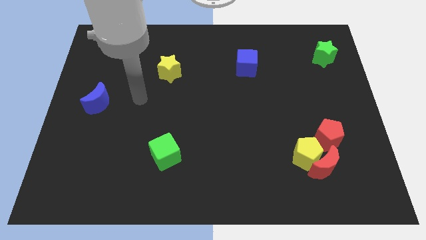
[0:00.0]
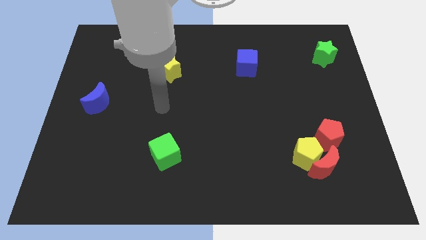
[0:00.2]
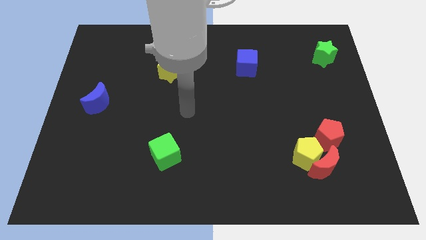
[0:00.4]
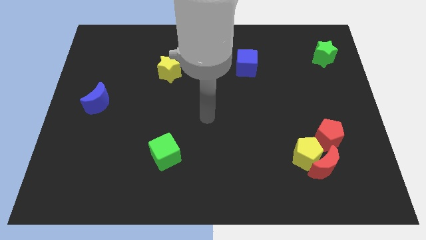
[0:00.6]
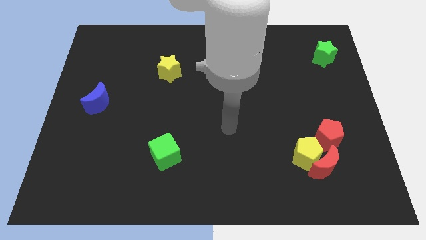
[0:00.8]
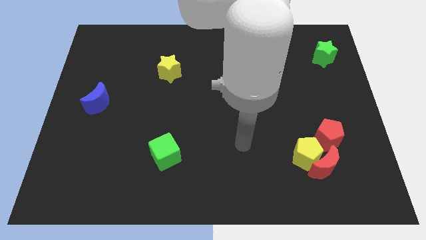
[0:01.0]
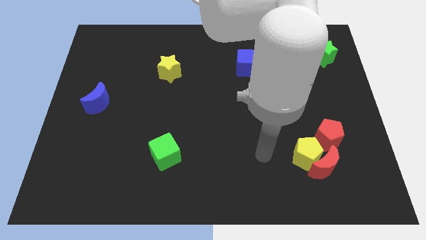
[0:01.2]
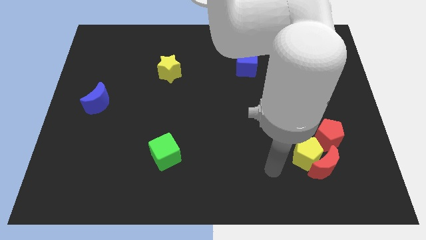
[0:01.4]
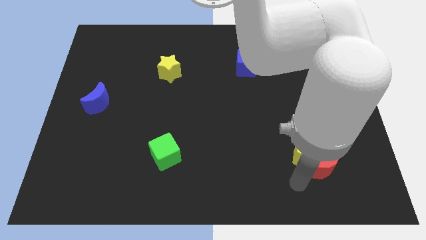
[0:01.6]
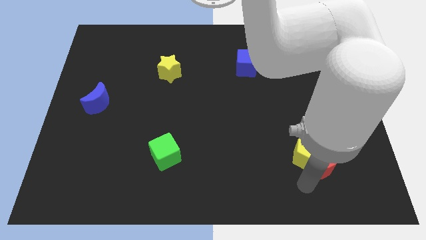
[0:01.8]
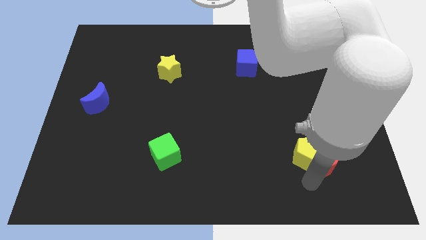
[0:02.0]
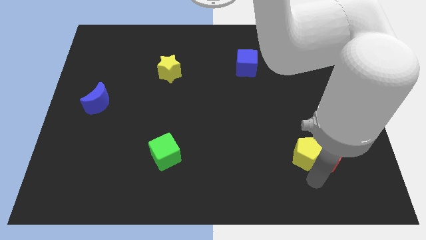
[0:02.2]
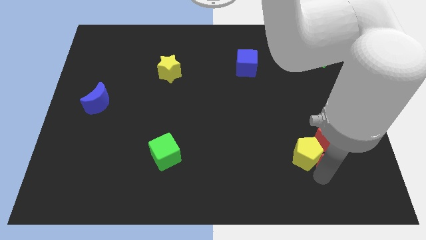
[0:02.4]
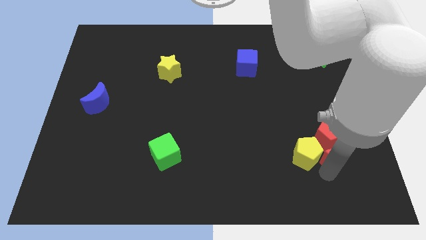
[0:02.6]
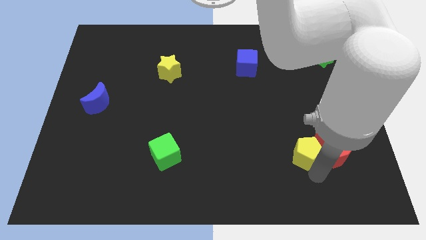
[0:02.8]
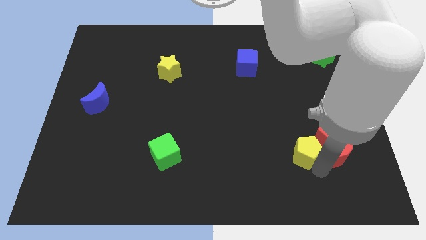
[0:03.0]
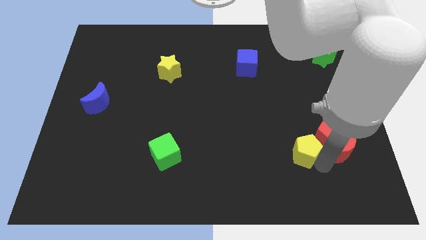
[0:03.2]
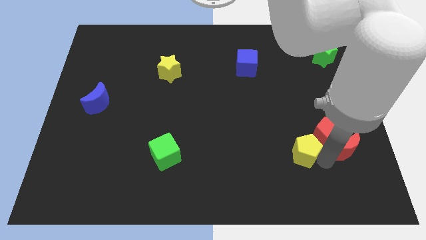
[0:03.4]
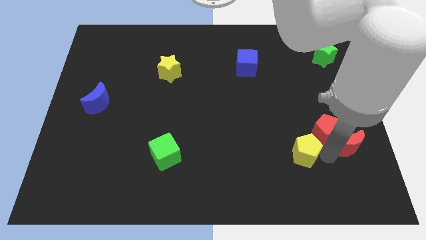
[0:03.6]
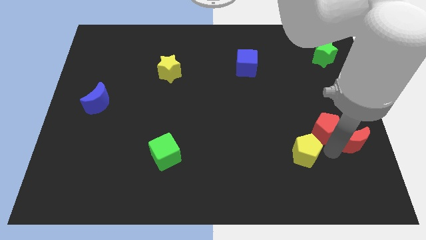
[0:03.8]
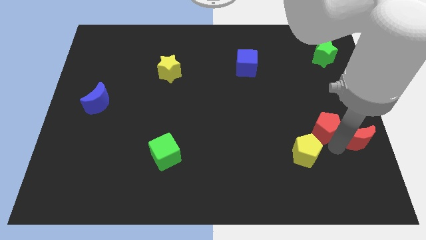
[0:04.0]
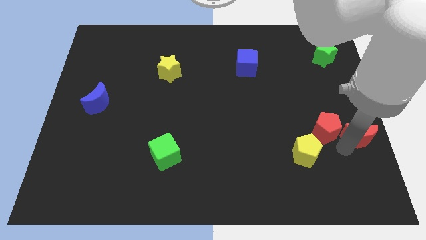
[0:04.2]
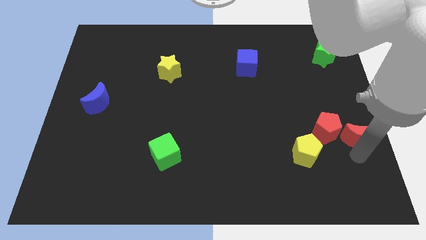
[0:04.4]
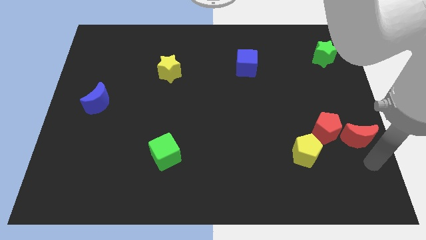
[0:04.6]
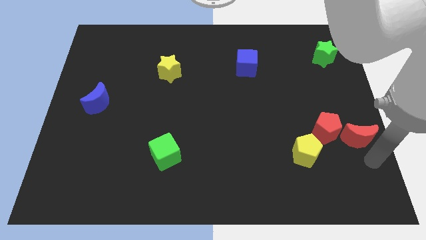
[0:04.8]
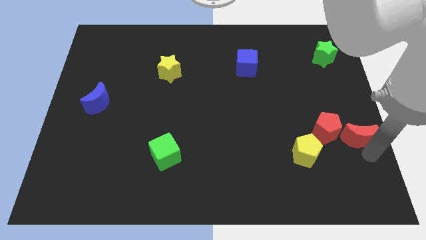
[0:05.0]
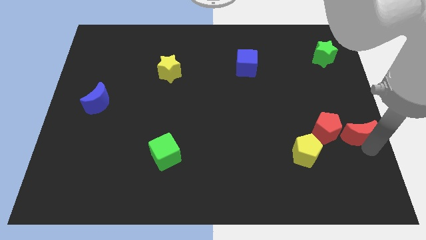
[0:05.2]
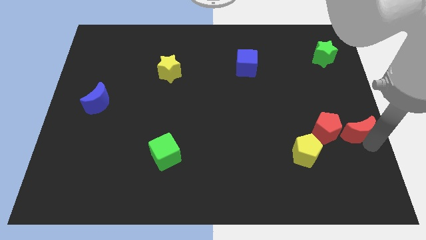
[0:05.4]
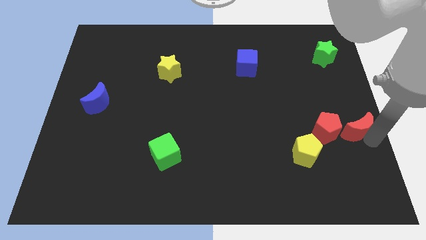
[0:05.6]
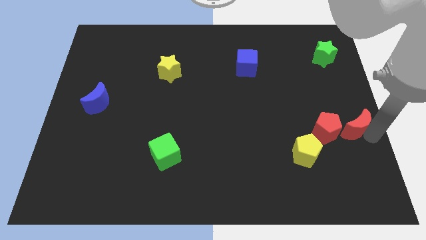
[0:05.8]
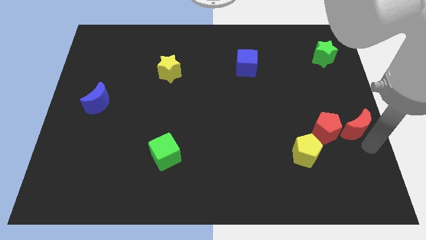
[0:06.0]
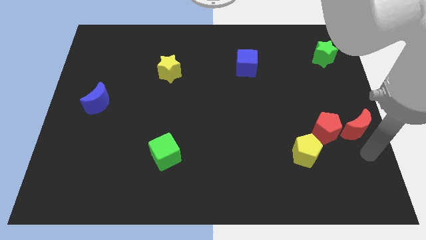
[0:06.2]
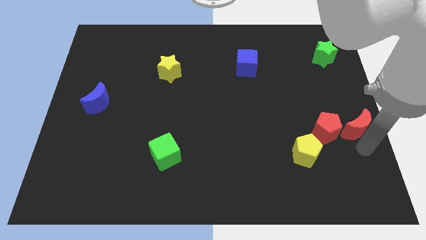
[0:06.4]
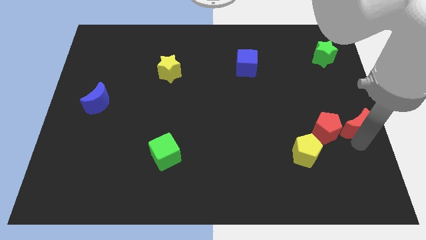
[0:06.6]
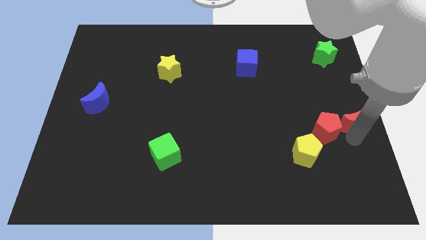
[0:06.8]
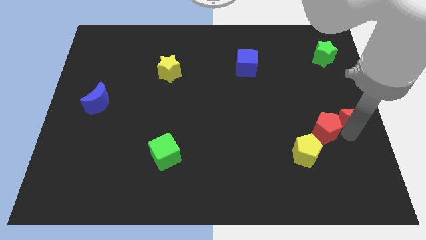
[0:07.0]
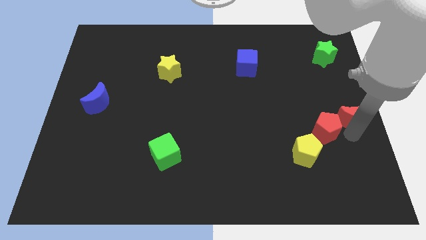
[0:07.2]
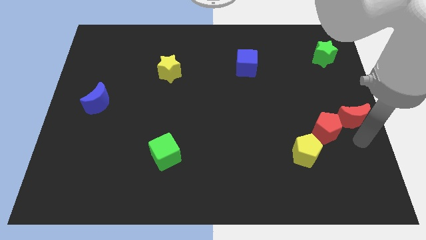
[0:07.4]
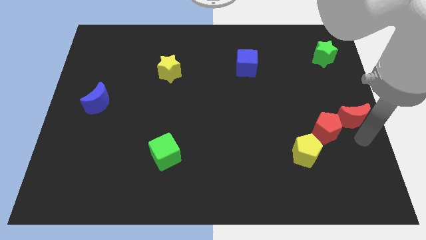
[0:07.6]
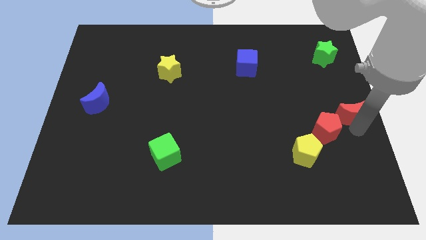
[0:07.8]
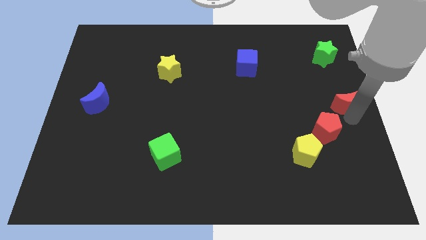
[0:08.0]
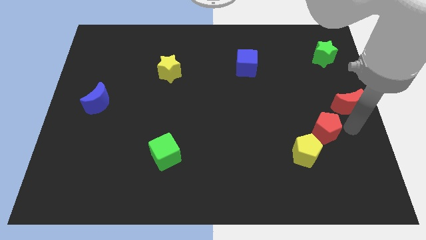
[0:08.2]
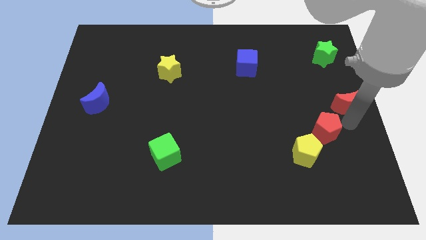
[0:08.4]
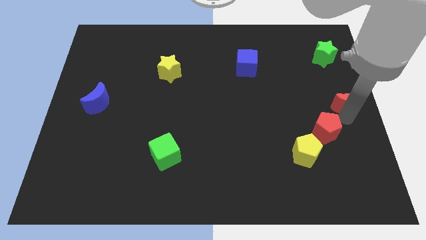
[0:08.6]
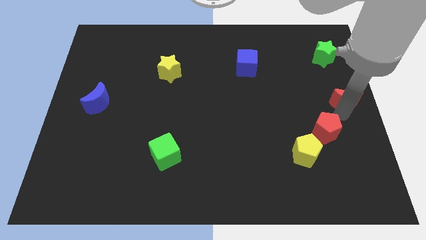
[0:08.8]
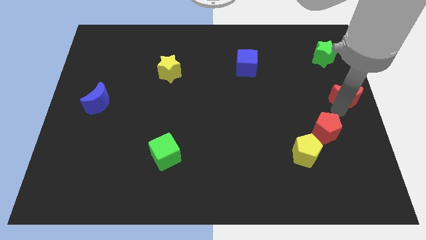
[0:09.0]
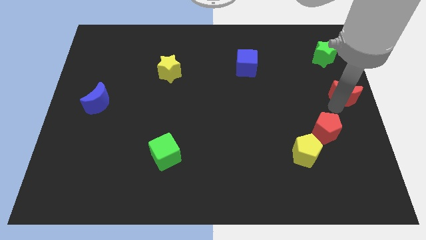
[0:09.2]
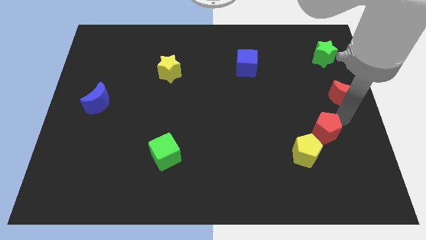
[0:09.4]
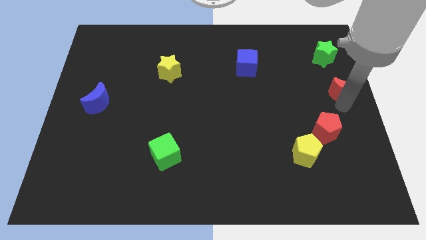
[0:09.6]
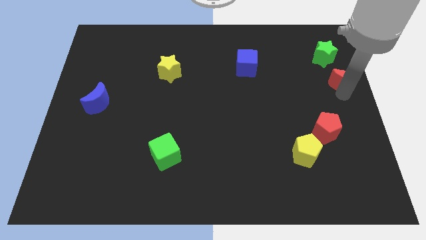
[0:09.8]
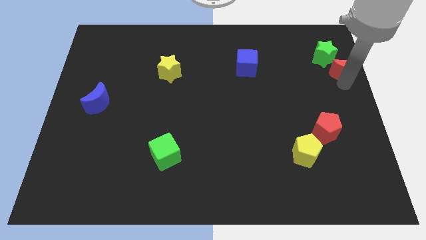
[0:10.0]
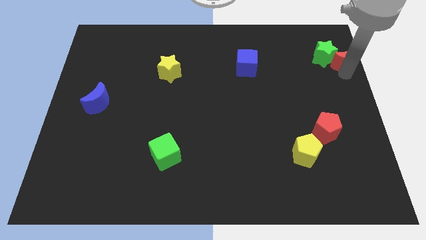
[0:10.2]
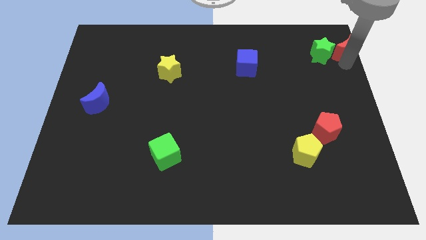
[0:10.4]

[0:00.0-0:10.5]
put the red moon to the top right

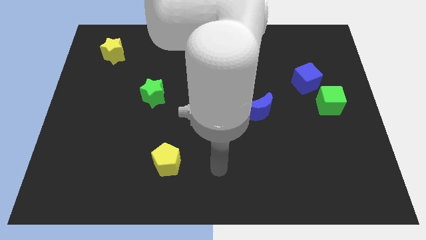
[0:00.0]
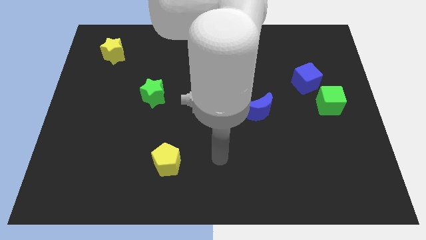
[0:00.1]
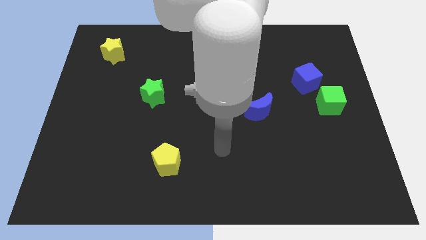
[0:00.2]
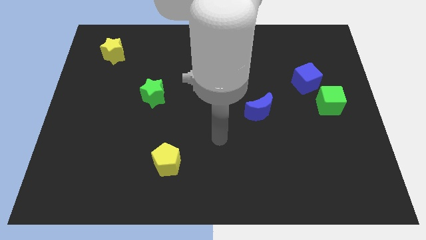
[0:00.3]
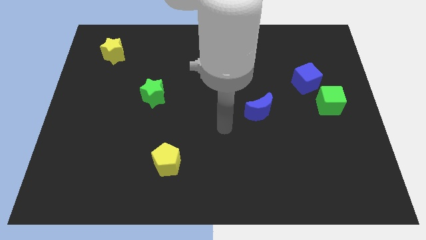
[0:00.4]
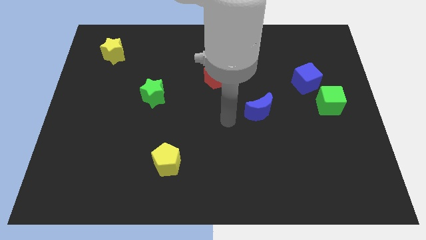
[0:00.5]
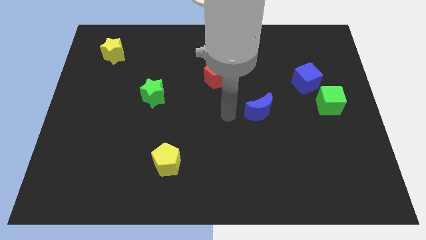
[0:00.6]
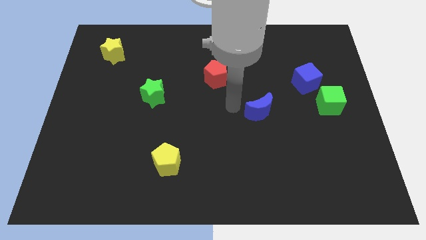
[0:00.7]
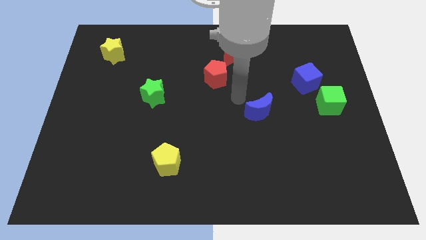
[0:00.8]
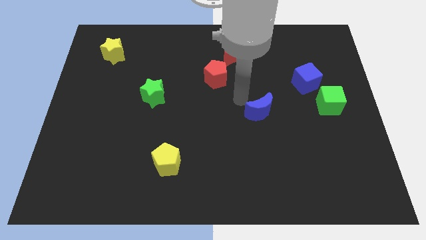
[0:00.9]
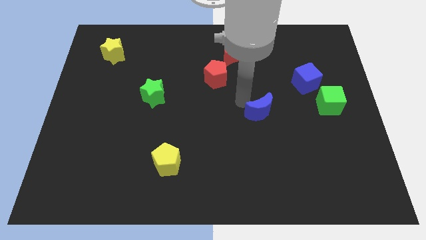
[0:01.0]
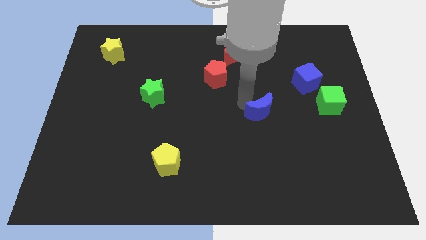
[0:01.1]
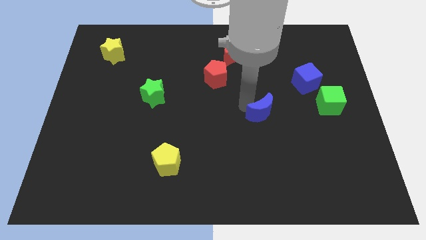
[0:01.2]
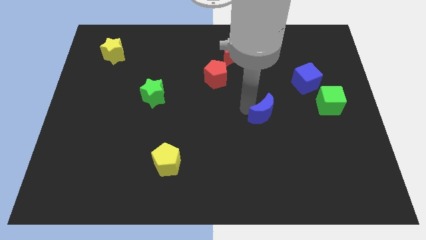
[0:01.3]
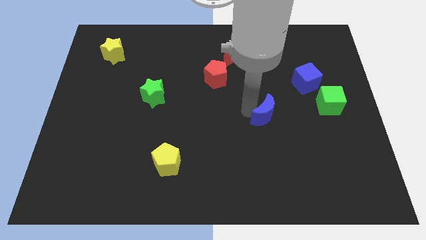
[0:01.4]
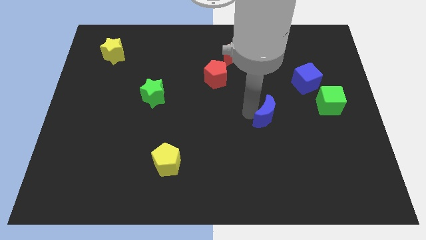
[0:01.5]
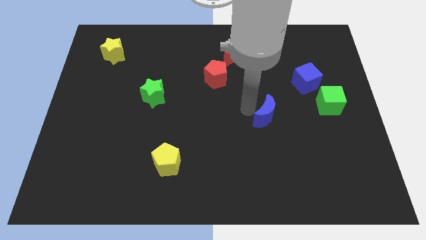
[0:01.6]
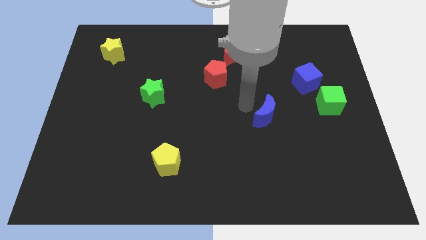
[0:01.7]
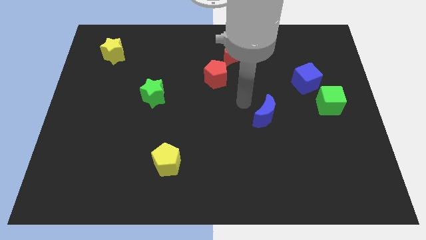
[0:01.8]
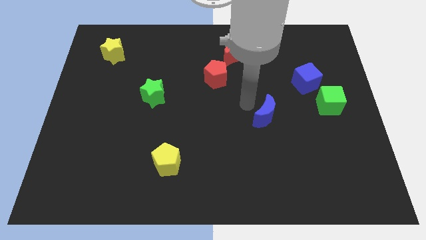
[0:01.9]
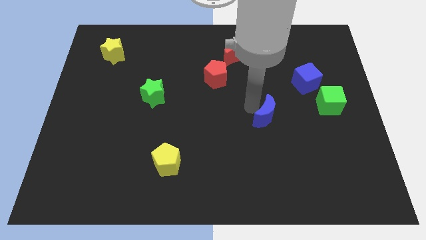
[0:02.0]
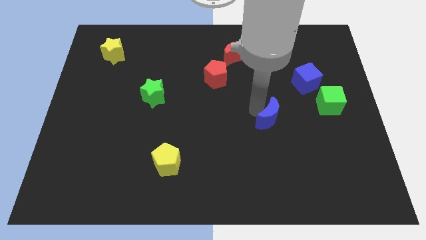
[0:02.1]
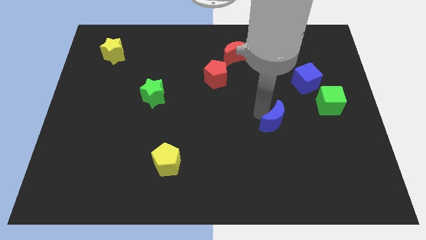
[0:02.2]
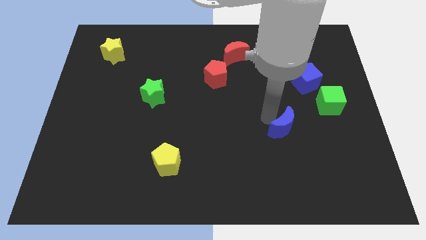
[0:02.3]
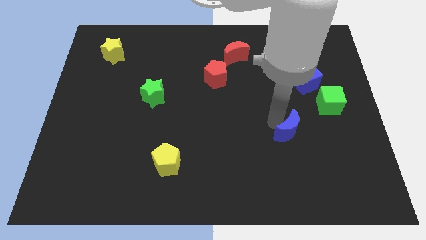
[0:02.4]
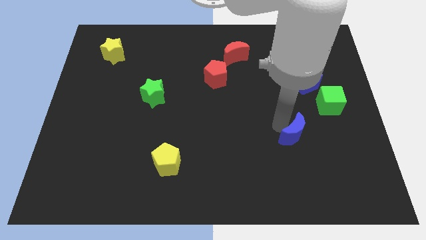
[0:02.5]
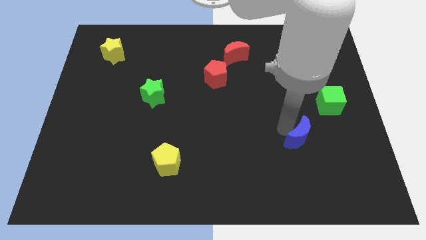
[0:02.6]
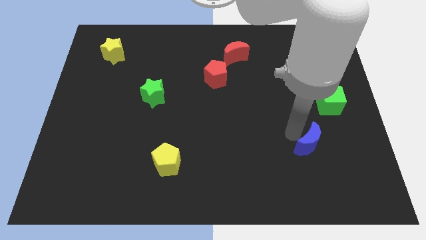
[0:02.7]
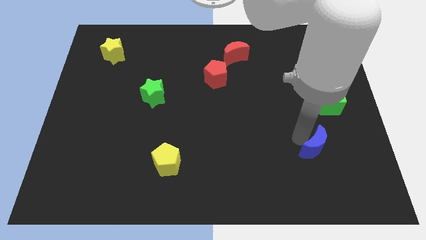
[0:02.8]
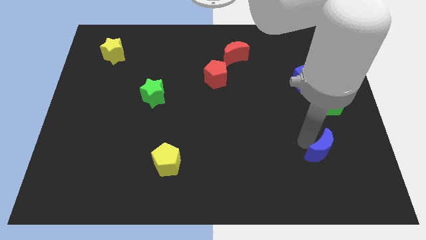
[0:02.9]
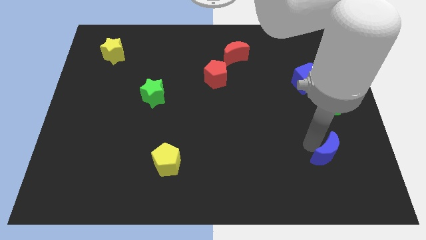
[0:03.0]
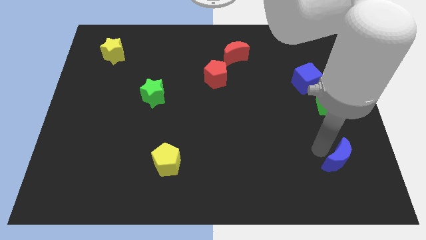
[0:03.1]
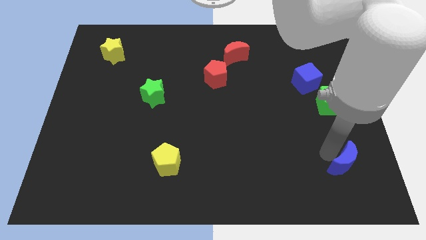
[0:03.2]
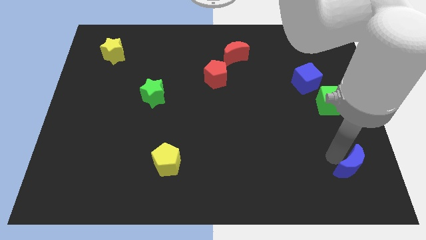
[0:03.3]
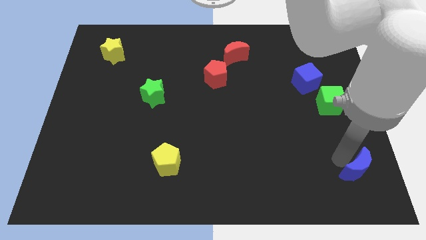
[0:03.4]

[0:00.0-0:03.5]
slide the blue moon to the lower right corner
